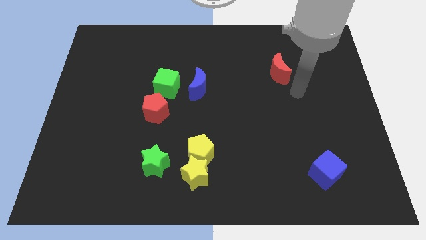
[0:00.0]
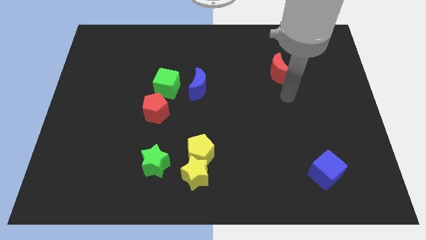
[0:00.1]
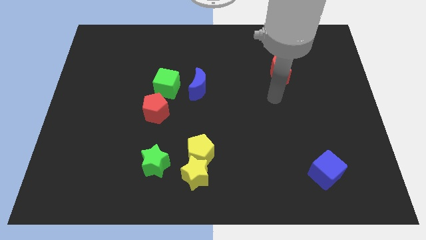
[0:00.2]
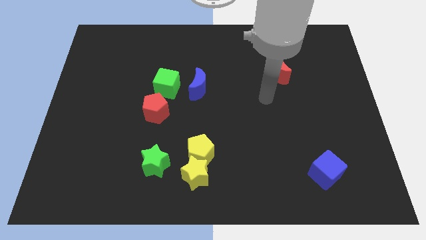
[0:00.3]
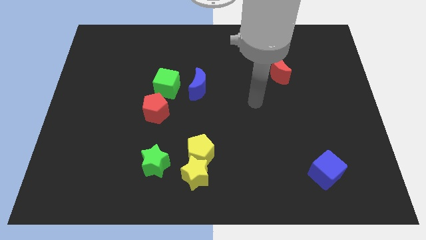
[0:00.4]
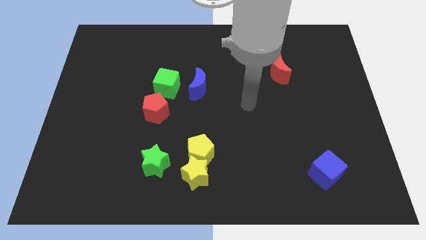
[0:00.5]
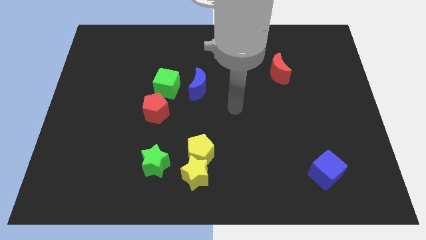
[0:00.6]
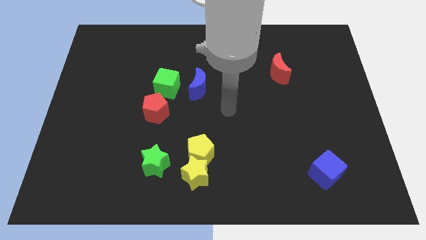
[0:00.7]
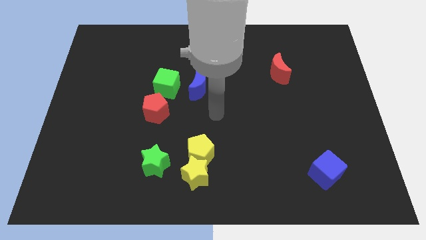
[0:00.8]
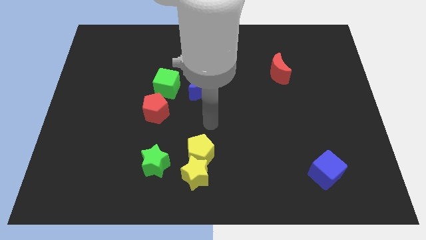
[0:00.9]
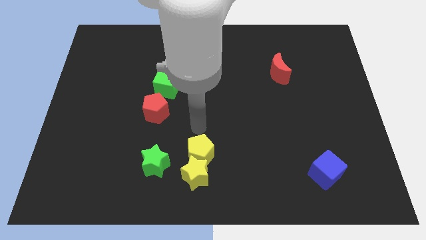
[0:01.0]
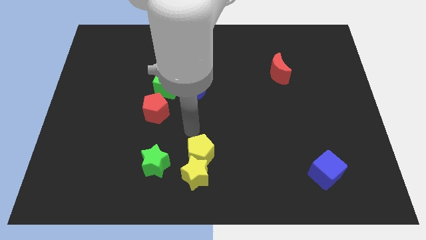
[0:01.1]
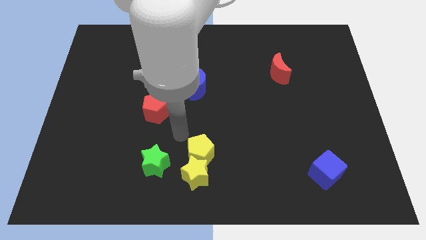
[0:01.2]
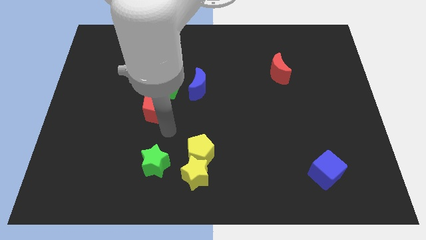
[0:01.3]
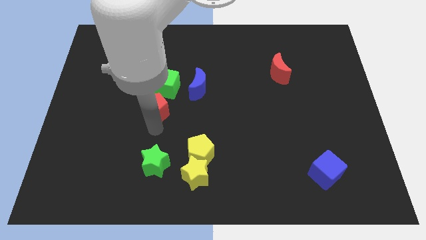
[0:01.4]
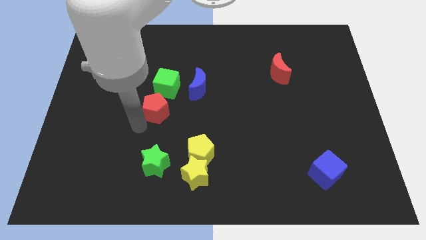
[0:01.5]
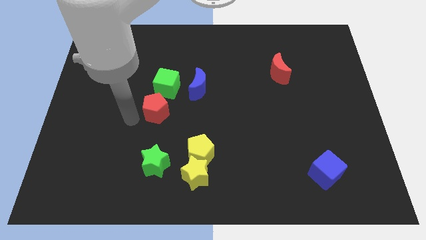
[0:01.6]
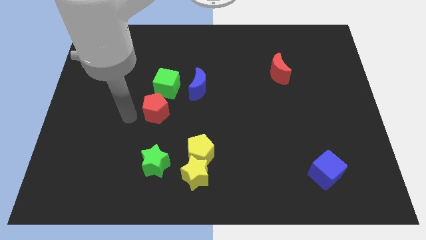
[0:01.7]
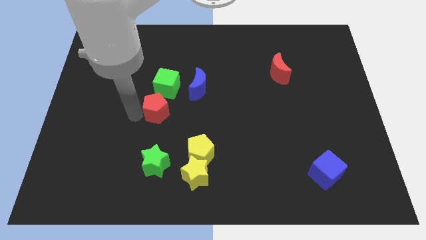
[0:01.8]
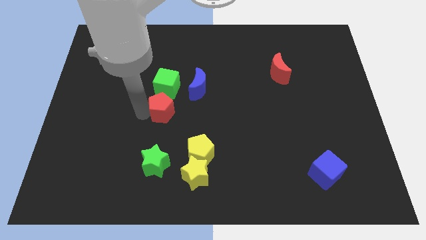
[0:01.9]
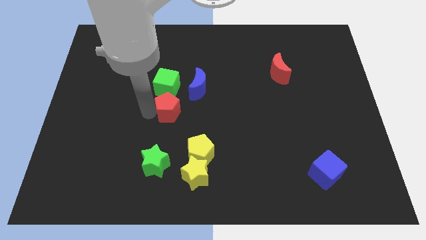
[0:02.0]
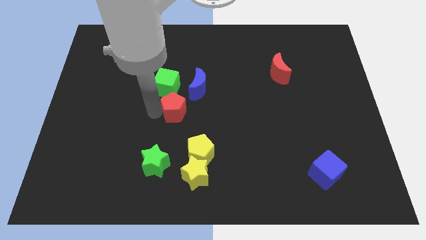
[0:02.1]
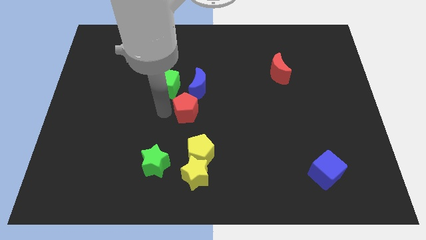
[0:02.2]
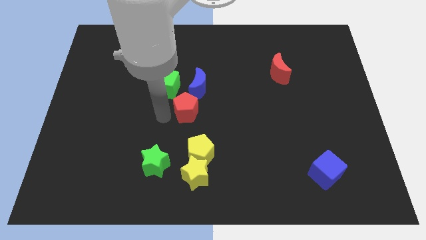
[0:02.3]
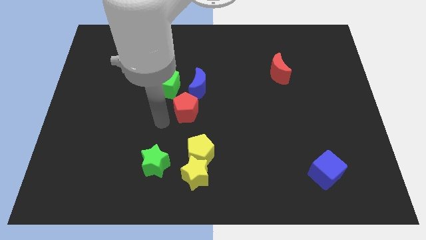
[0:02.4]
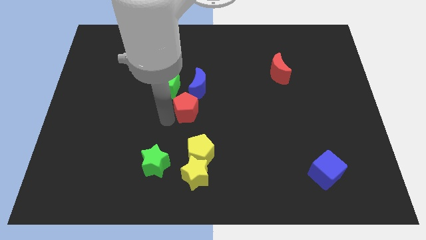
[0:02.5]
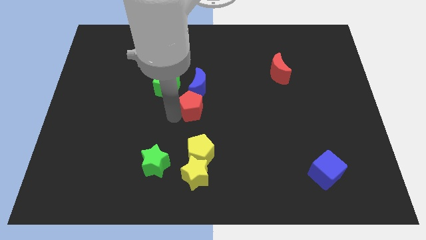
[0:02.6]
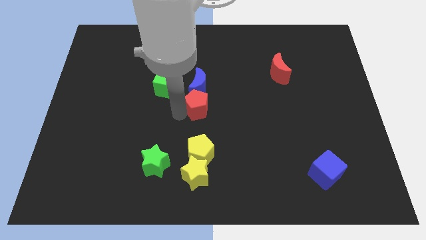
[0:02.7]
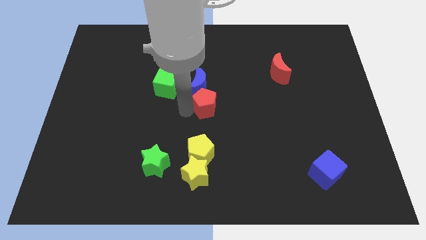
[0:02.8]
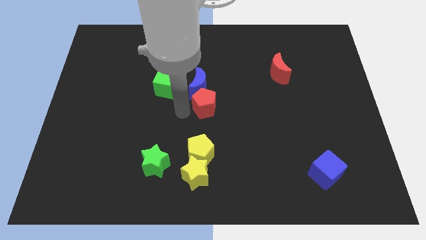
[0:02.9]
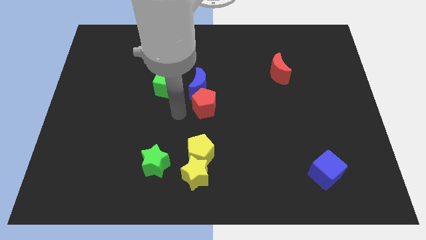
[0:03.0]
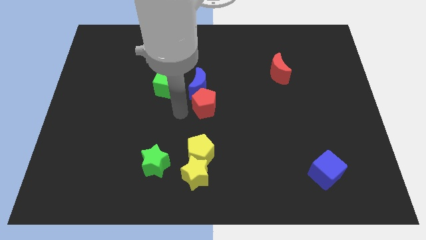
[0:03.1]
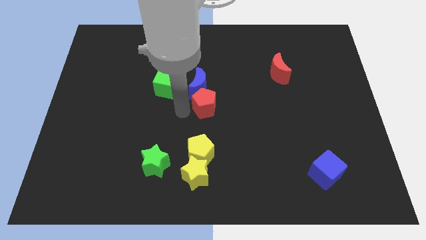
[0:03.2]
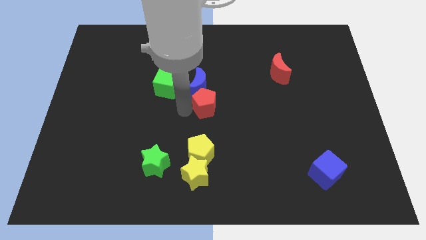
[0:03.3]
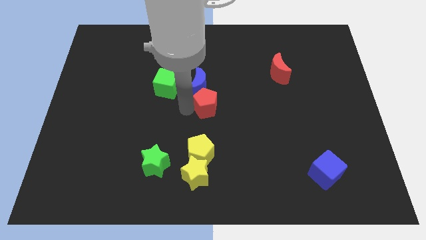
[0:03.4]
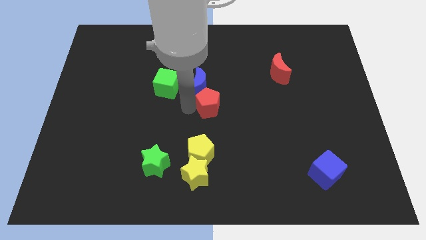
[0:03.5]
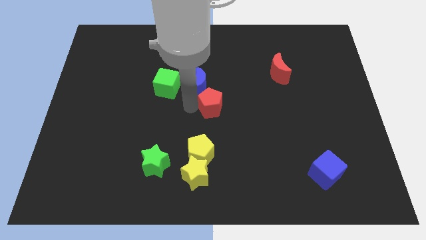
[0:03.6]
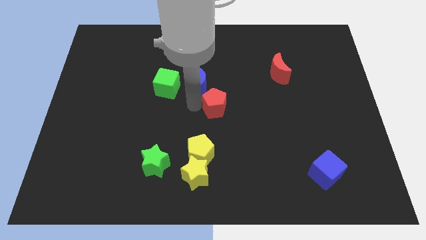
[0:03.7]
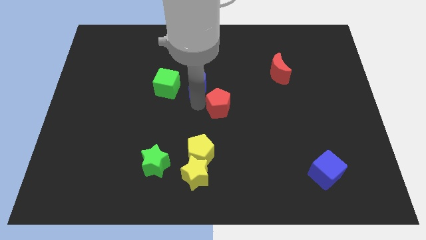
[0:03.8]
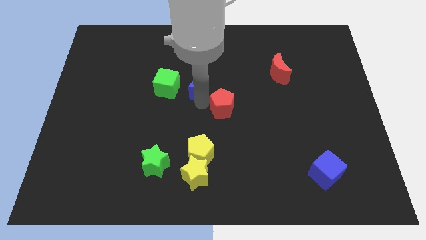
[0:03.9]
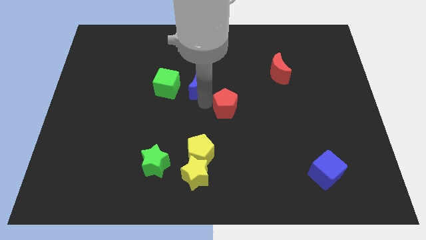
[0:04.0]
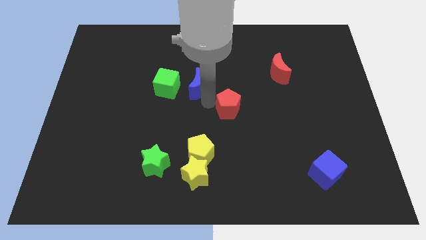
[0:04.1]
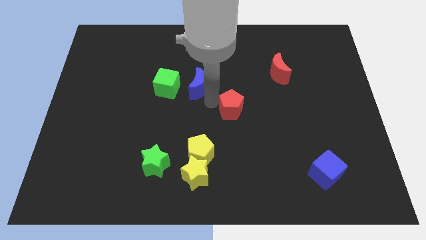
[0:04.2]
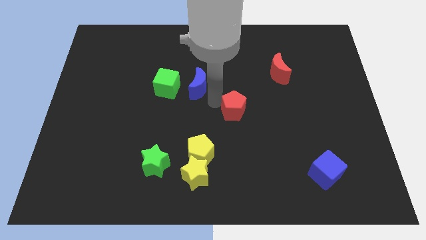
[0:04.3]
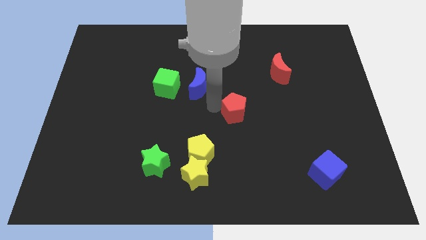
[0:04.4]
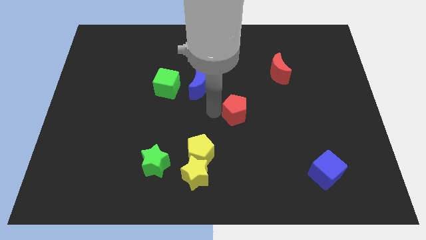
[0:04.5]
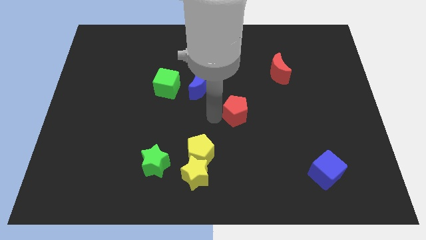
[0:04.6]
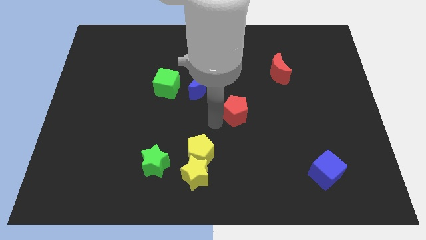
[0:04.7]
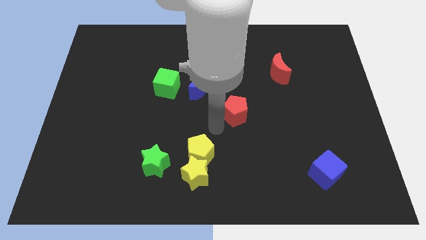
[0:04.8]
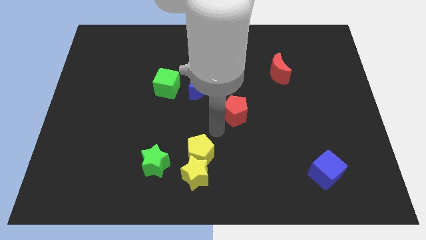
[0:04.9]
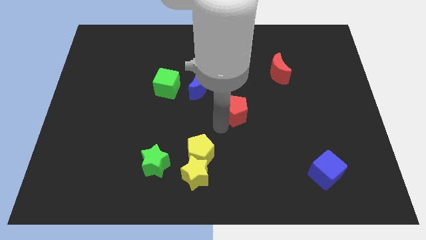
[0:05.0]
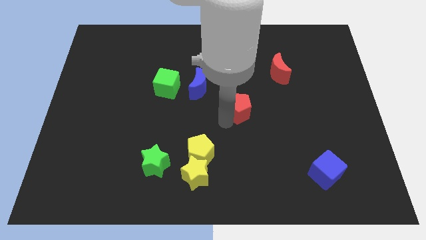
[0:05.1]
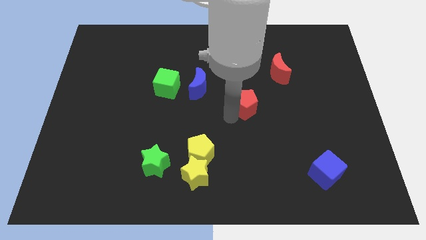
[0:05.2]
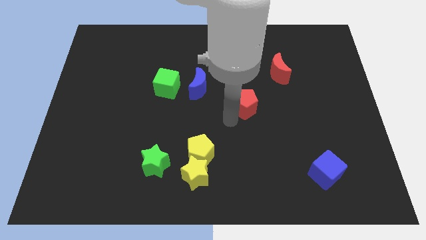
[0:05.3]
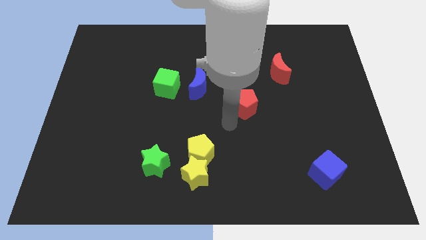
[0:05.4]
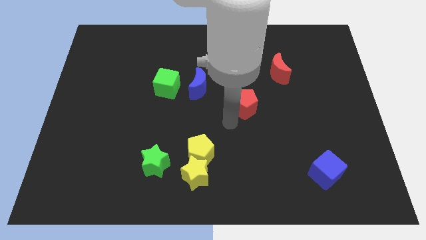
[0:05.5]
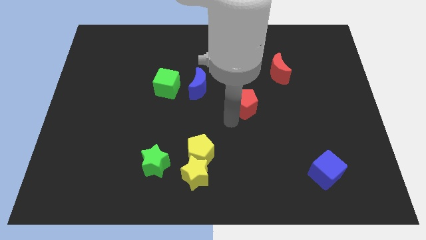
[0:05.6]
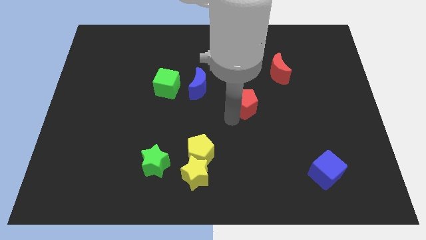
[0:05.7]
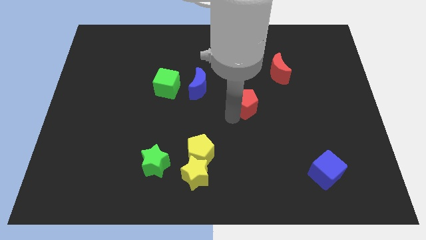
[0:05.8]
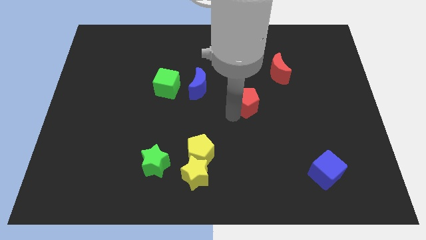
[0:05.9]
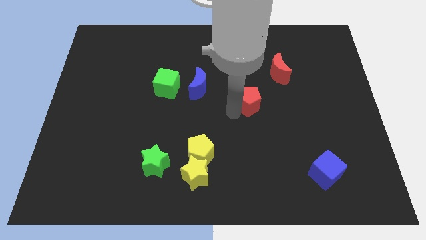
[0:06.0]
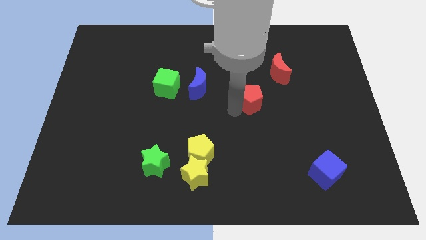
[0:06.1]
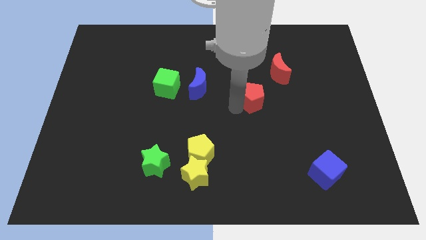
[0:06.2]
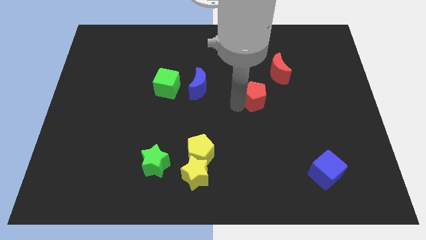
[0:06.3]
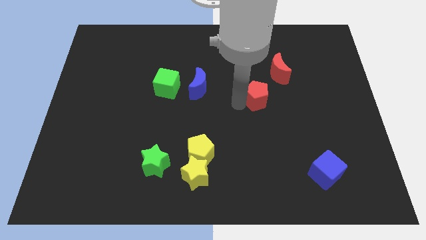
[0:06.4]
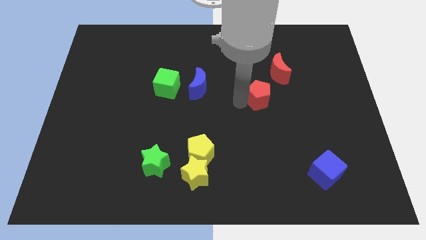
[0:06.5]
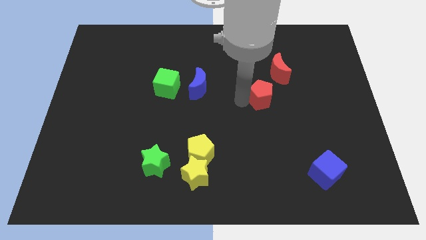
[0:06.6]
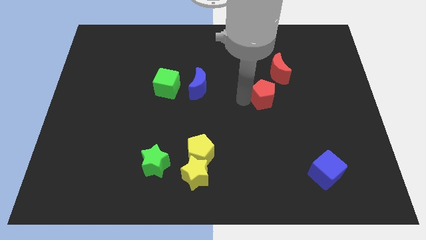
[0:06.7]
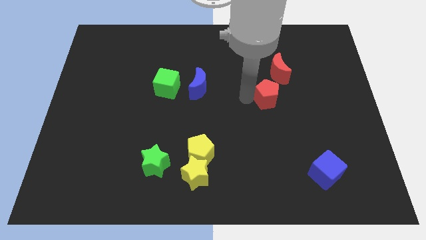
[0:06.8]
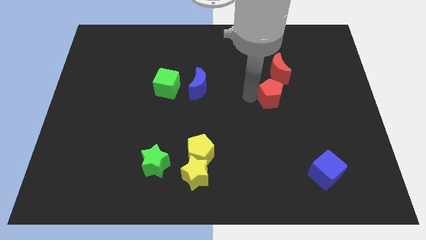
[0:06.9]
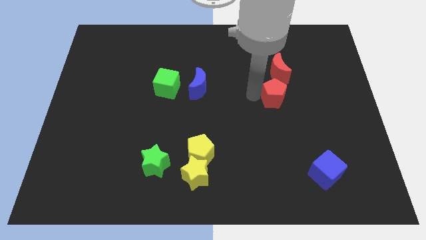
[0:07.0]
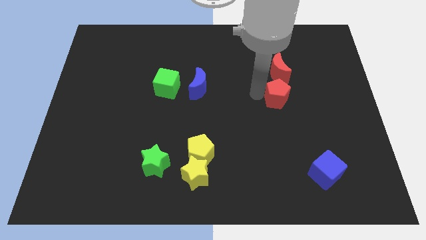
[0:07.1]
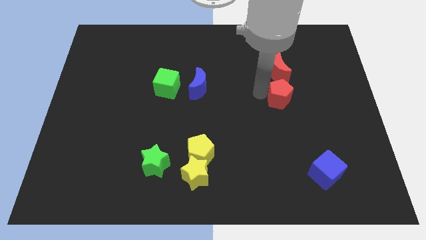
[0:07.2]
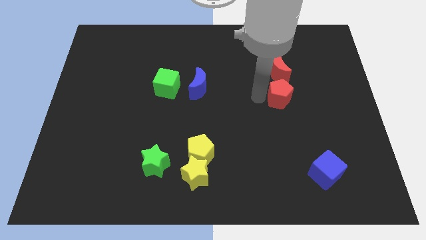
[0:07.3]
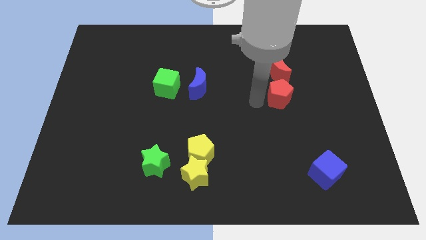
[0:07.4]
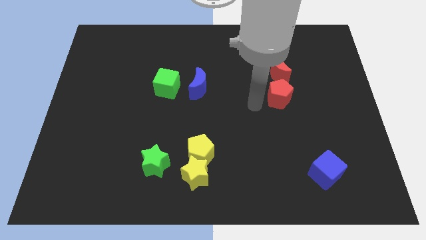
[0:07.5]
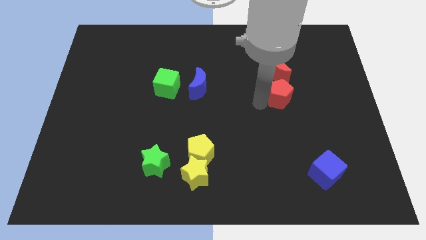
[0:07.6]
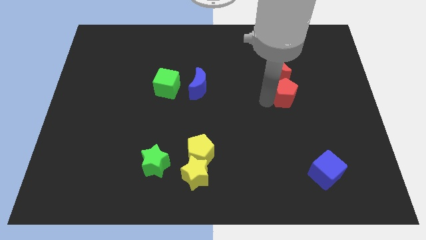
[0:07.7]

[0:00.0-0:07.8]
push the red pentagon to the bottom right side of the red moon
